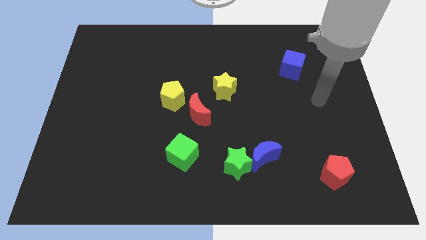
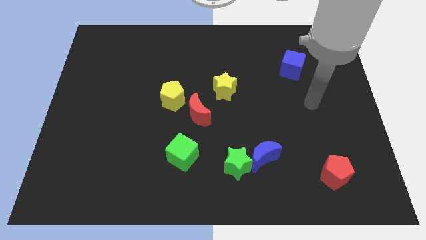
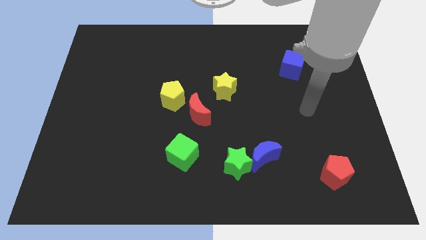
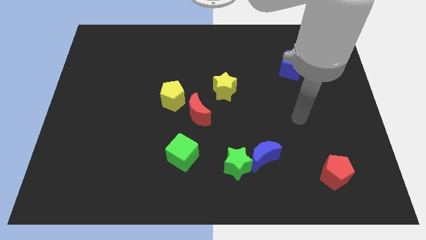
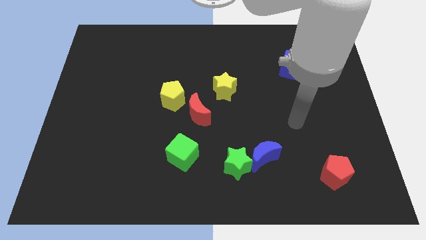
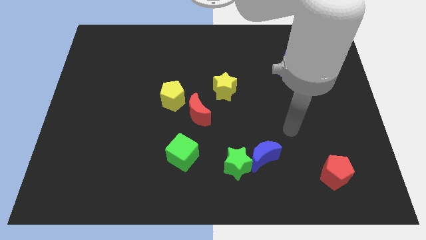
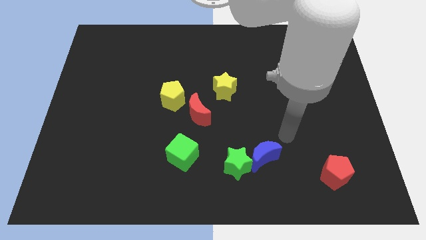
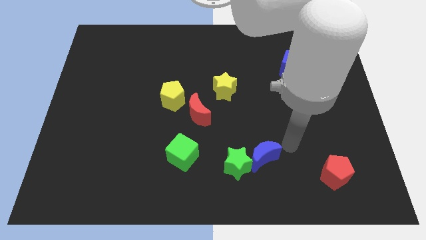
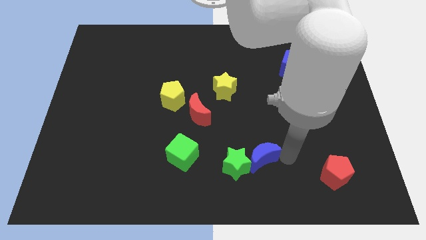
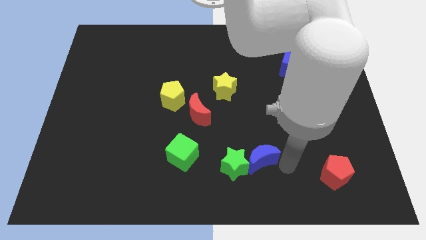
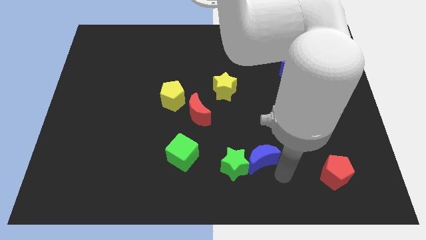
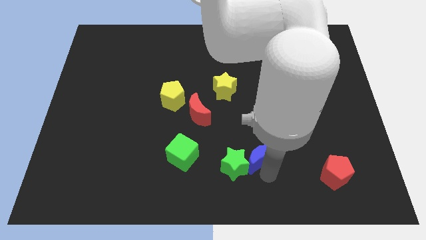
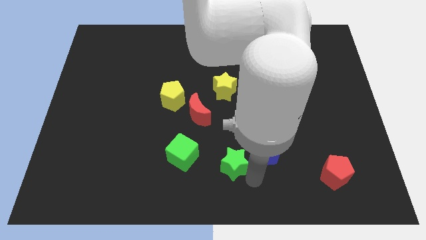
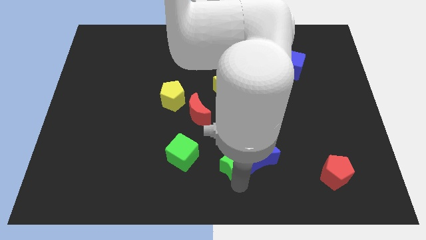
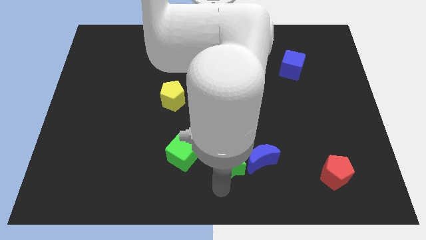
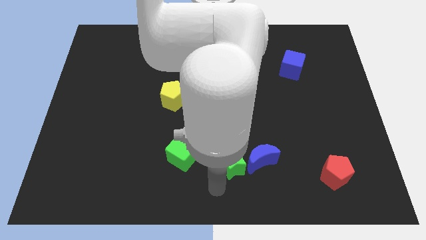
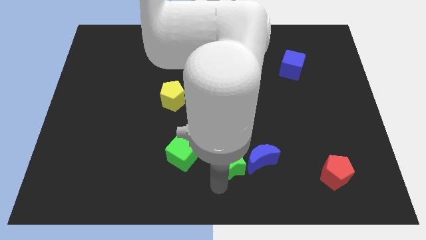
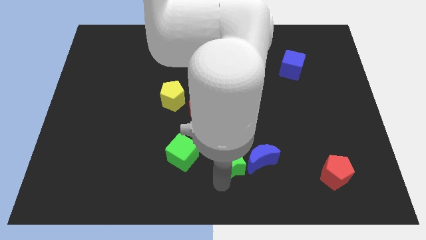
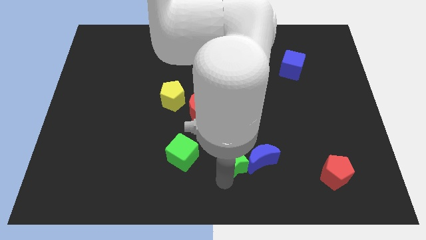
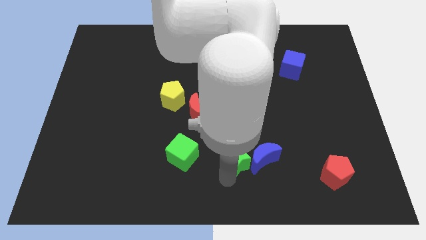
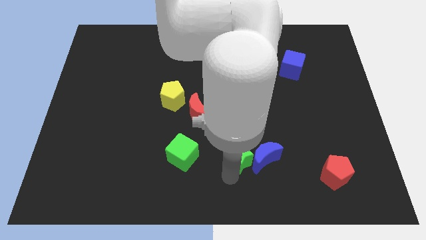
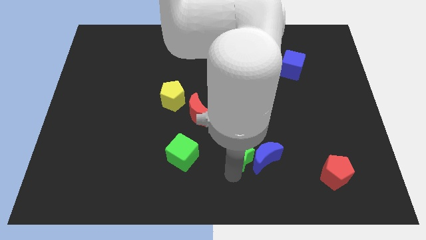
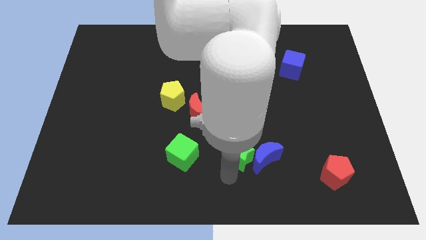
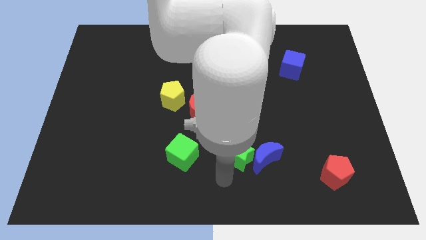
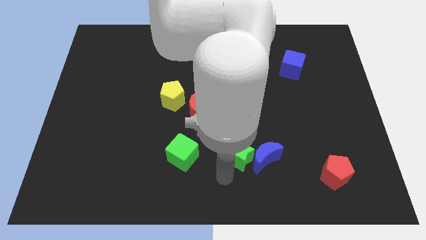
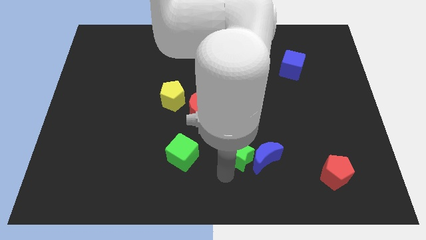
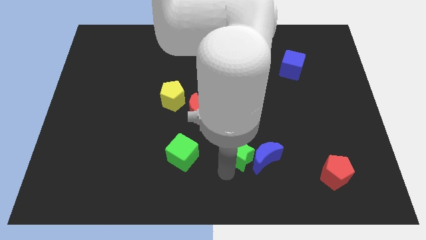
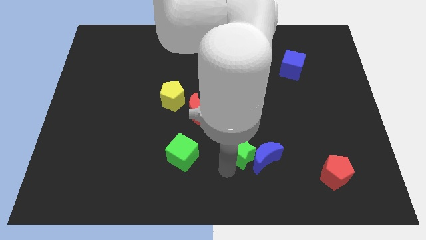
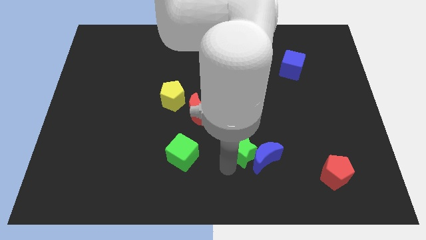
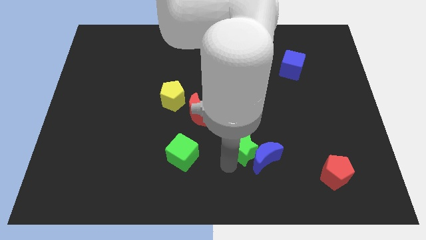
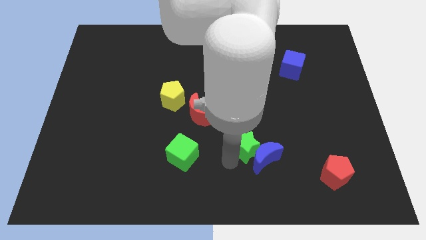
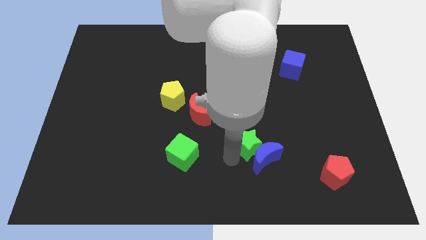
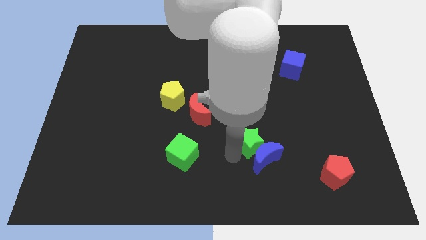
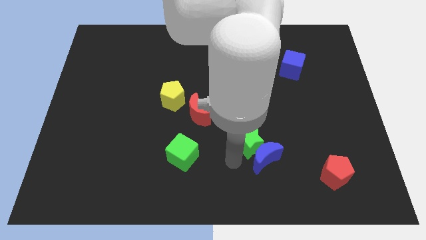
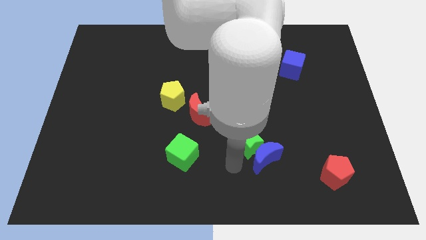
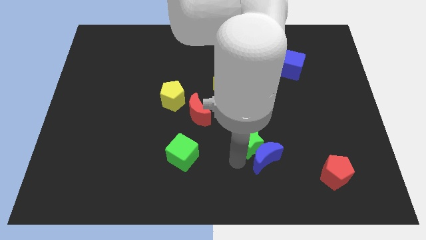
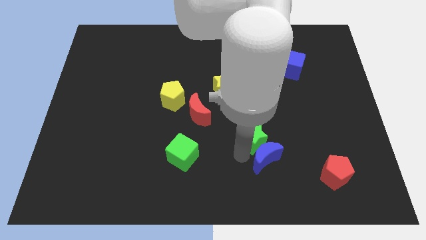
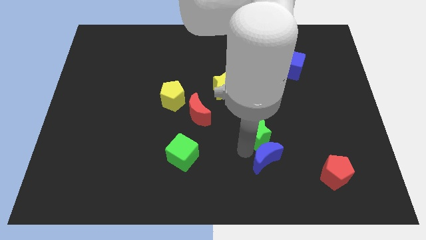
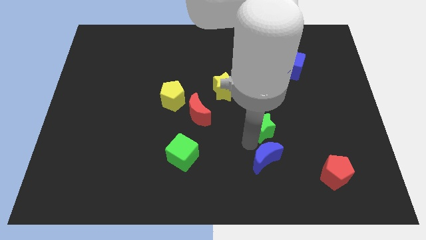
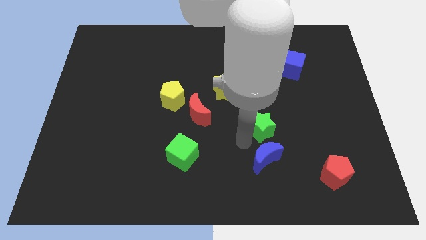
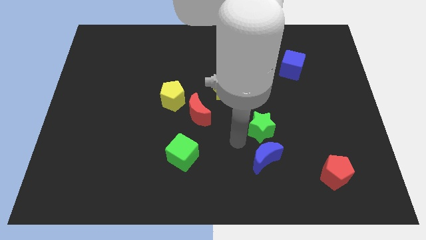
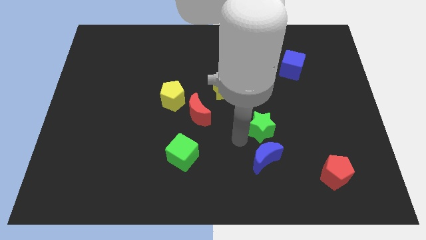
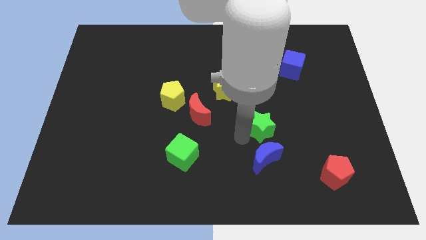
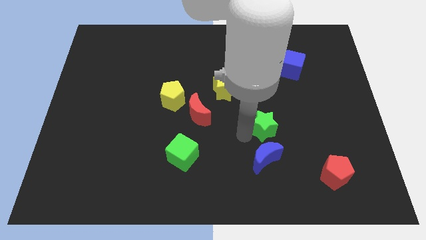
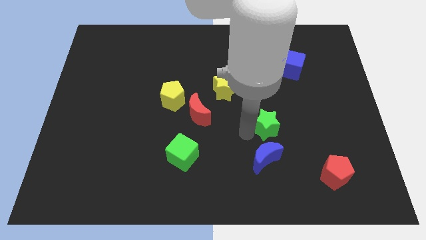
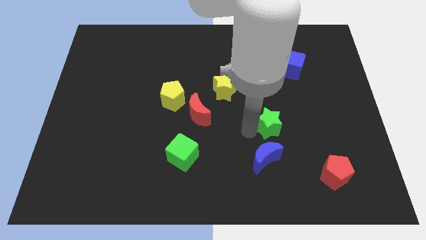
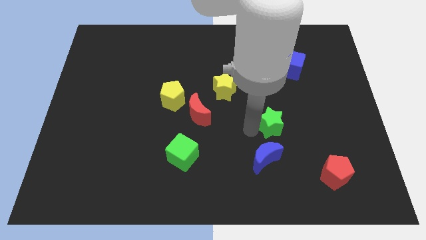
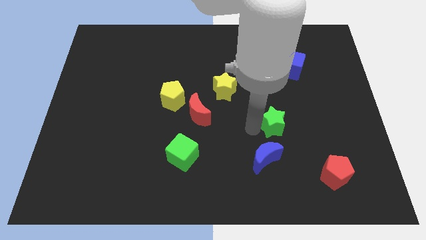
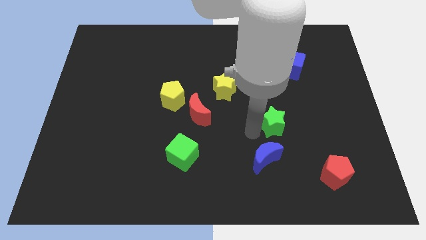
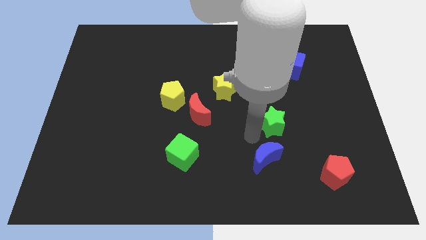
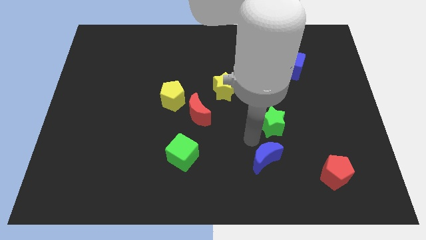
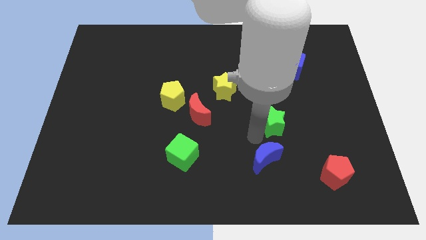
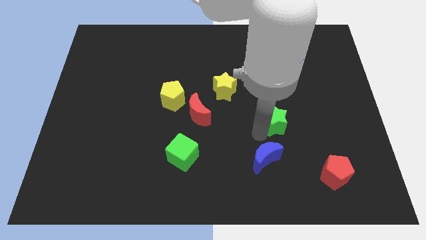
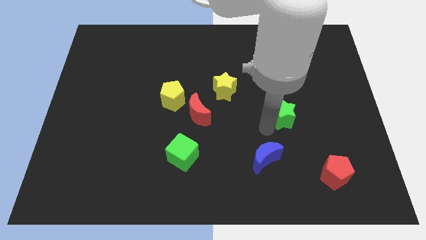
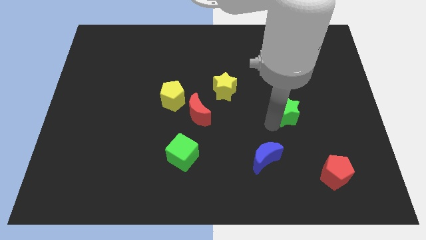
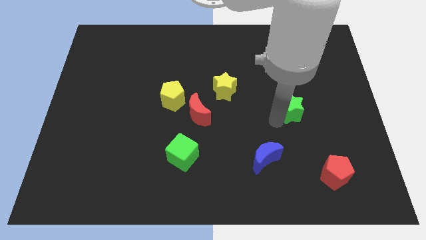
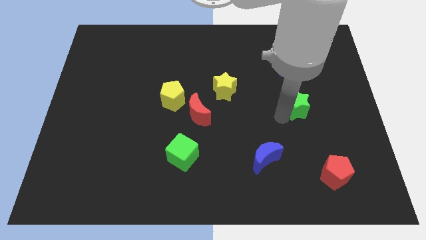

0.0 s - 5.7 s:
push the green star up and right

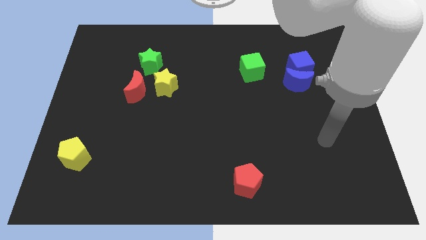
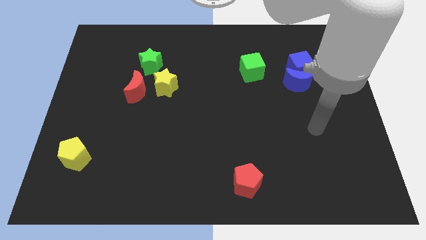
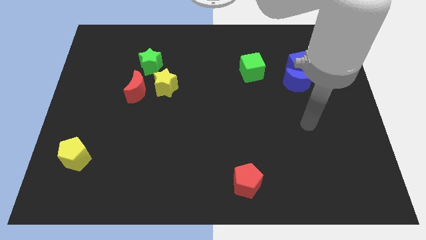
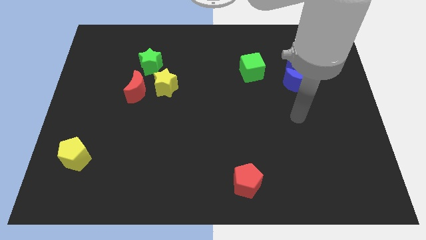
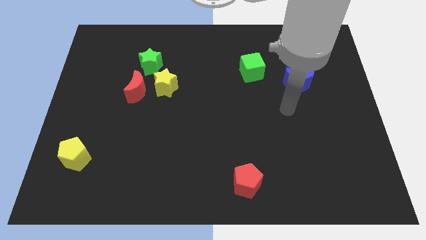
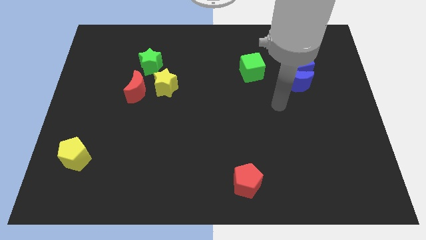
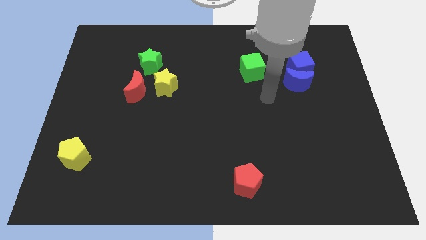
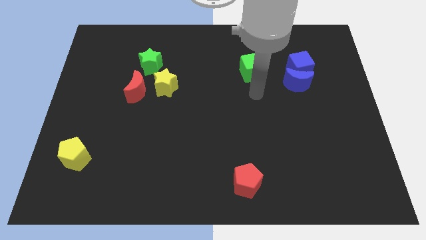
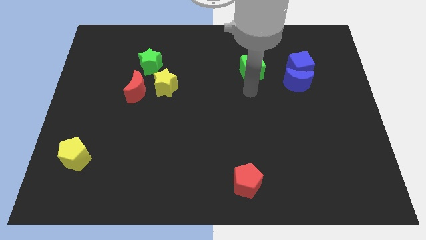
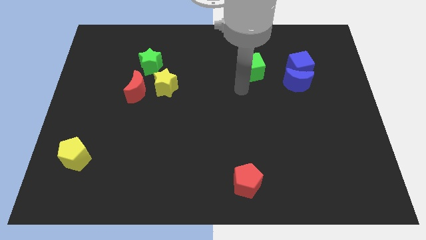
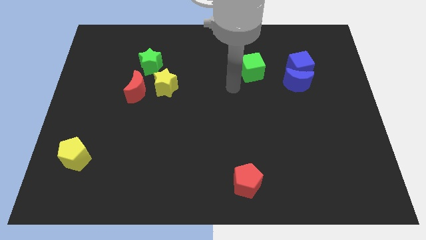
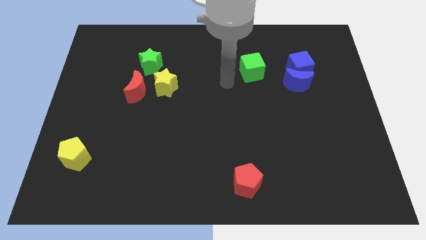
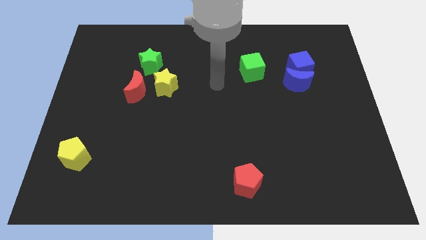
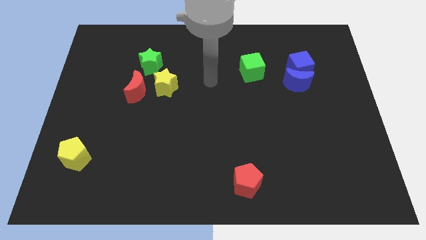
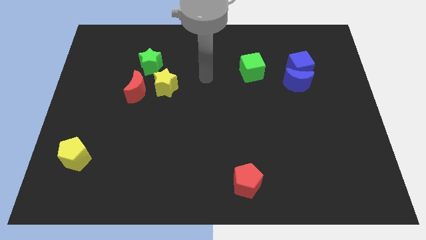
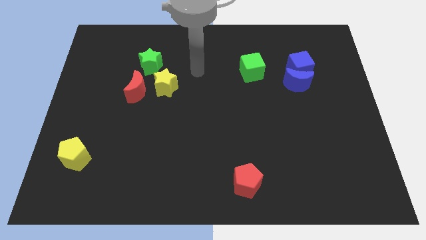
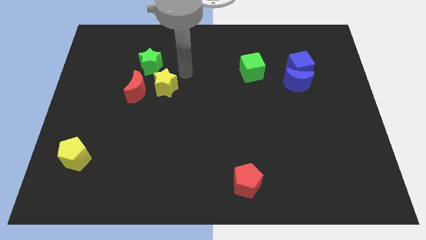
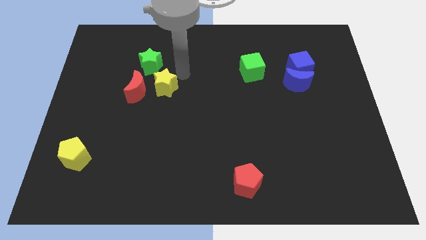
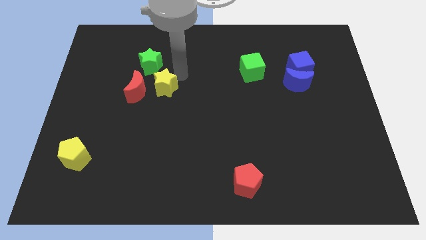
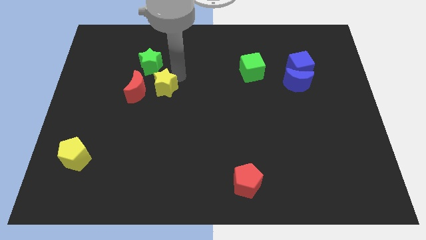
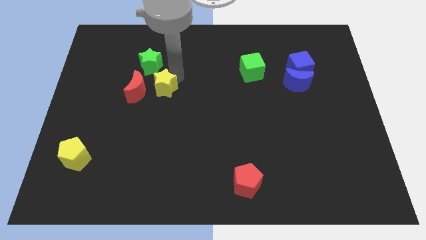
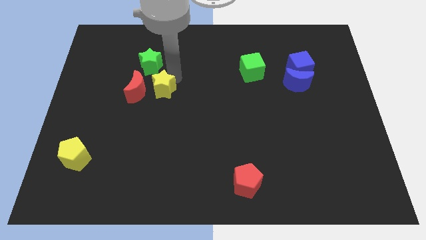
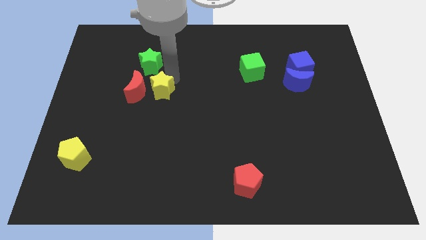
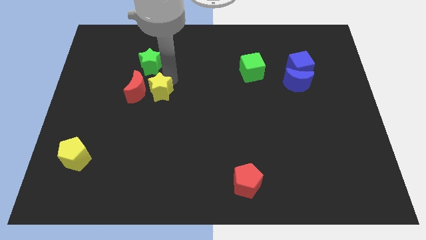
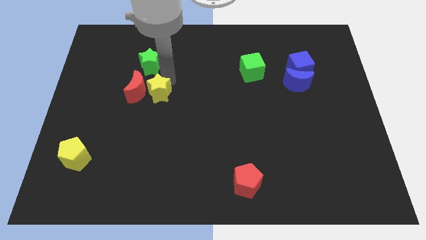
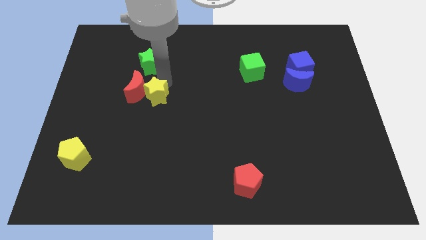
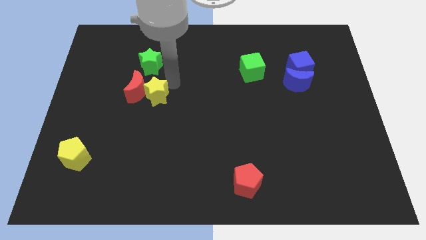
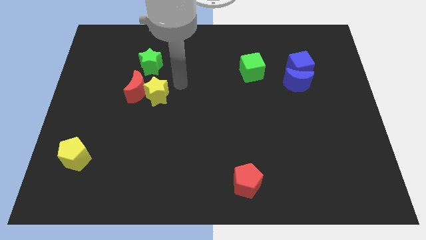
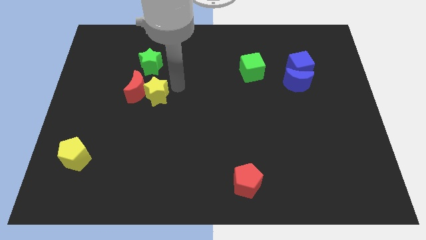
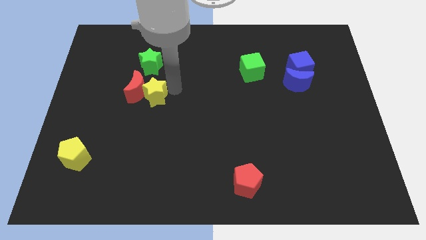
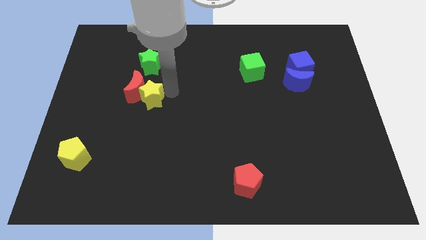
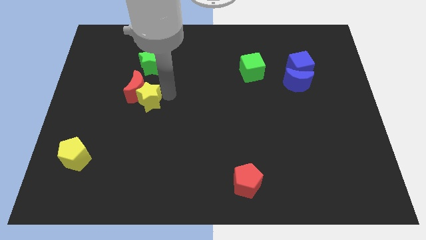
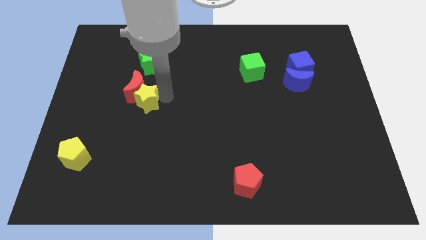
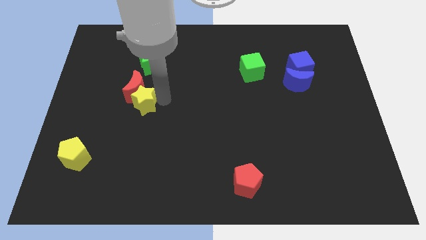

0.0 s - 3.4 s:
slightly push the yellow star downwards and then left
